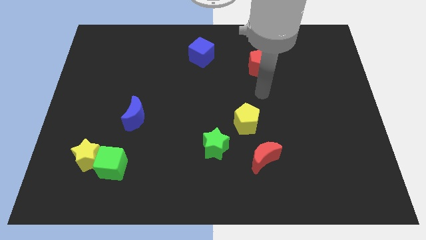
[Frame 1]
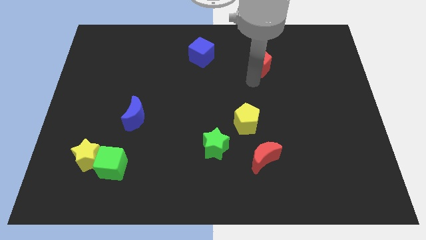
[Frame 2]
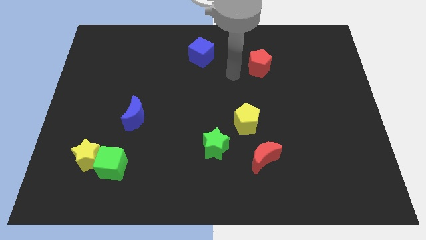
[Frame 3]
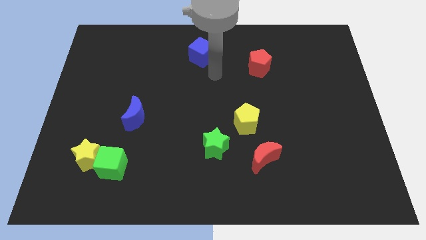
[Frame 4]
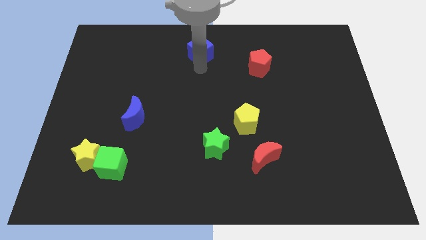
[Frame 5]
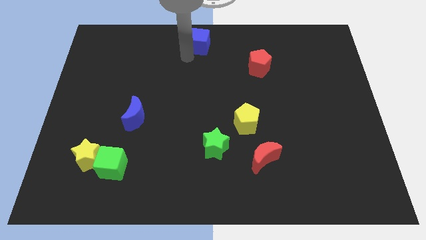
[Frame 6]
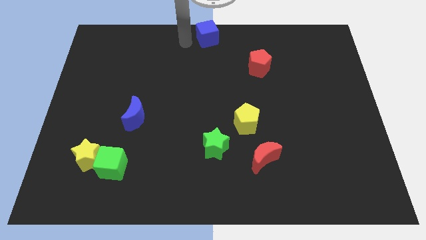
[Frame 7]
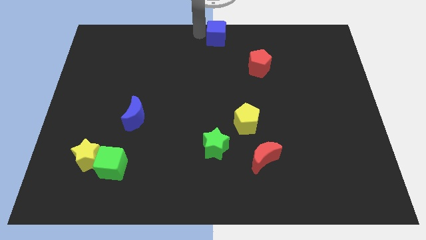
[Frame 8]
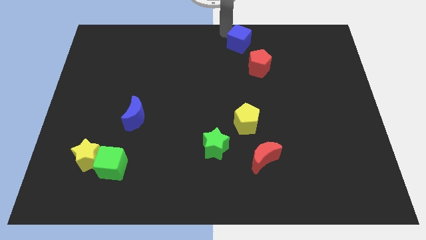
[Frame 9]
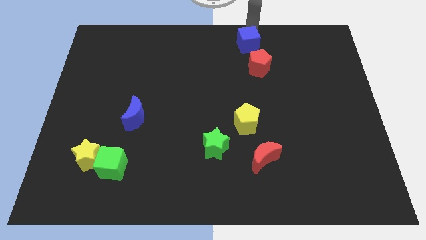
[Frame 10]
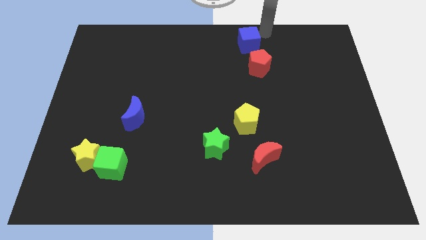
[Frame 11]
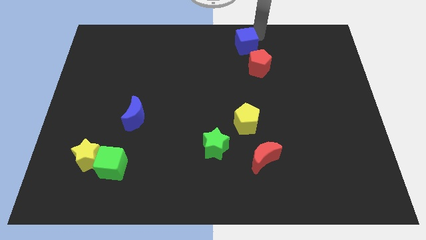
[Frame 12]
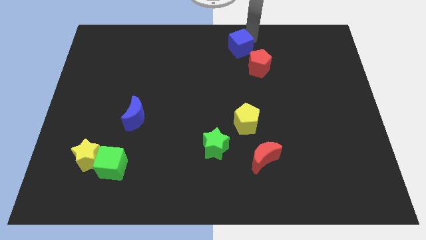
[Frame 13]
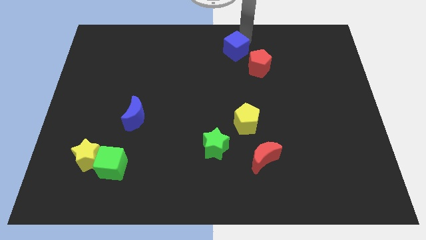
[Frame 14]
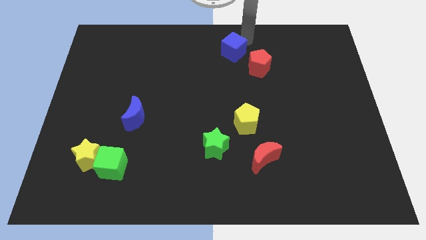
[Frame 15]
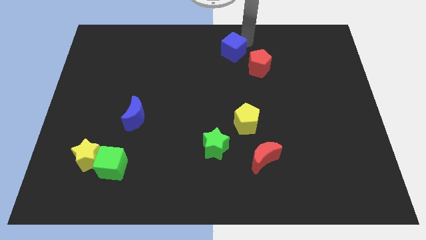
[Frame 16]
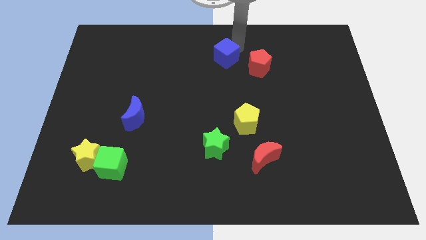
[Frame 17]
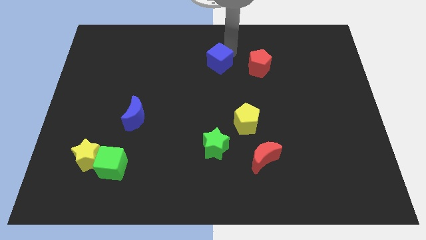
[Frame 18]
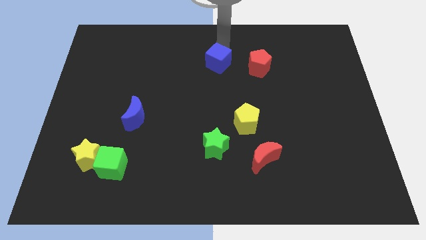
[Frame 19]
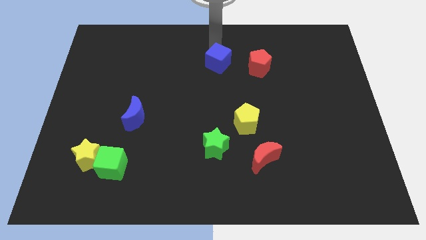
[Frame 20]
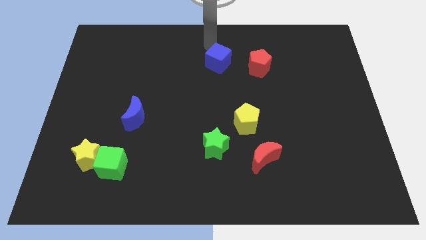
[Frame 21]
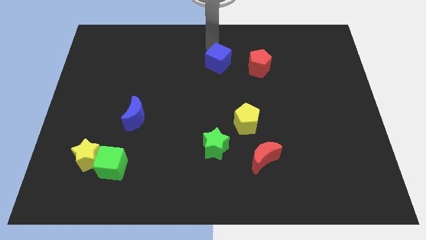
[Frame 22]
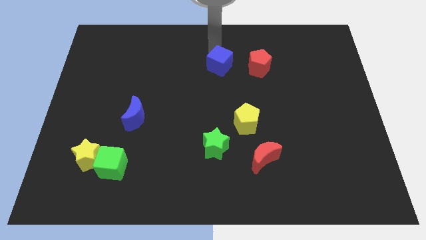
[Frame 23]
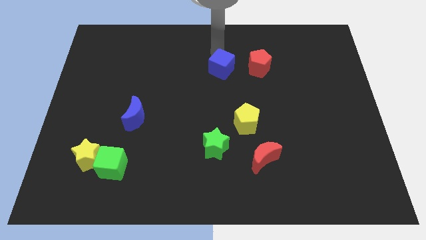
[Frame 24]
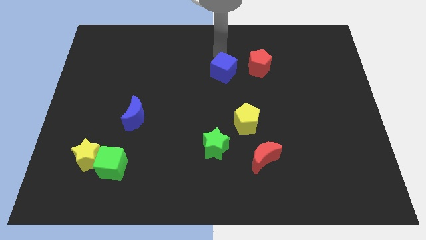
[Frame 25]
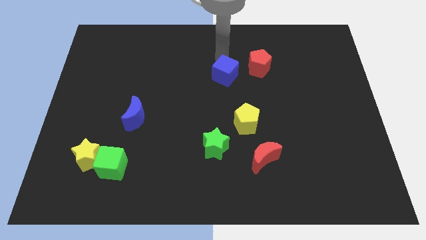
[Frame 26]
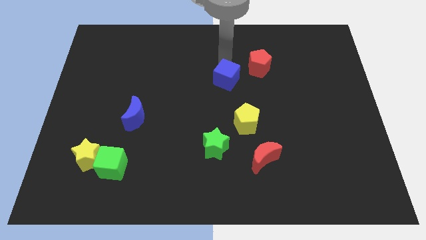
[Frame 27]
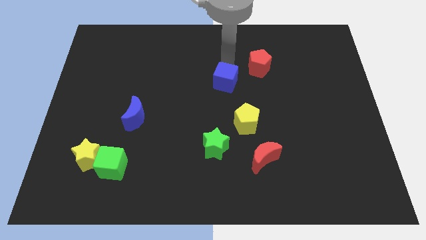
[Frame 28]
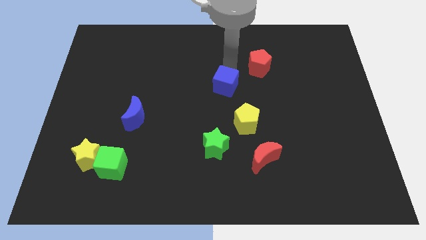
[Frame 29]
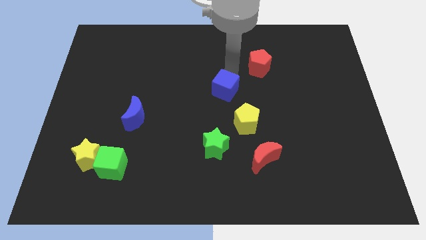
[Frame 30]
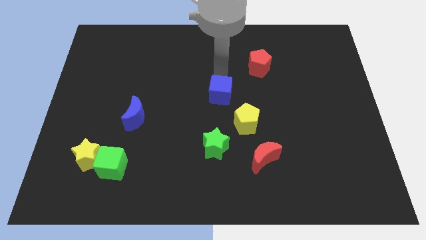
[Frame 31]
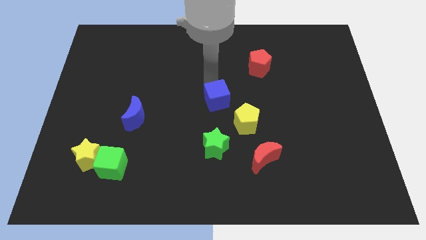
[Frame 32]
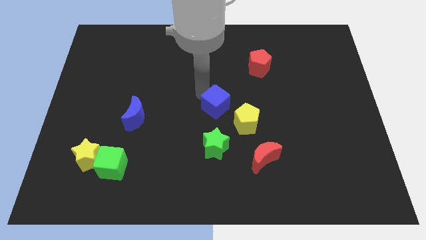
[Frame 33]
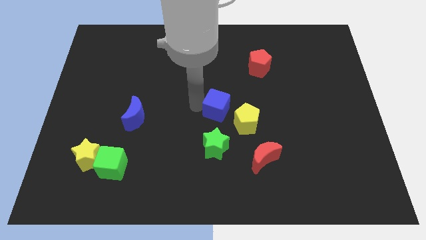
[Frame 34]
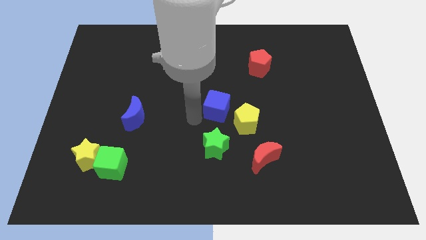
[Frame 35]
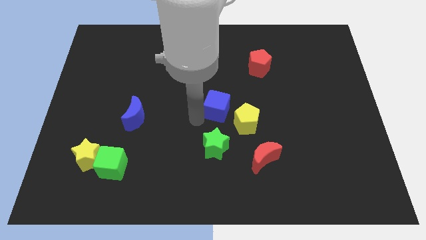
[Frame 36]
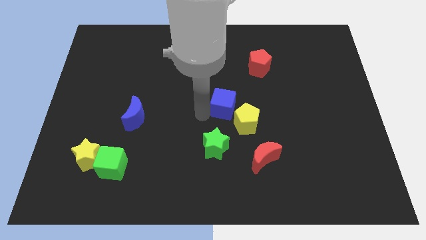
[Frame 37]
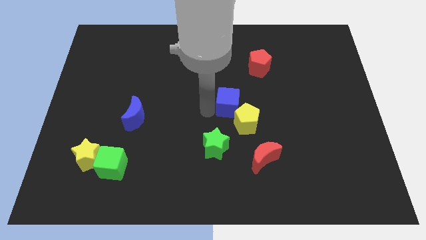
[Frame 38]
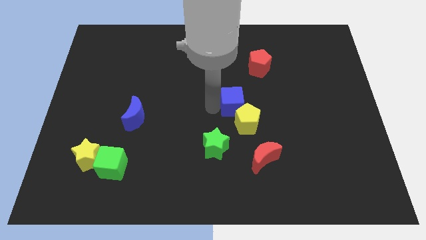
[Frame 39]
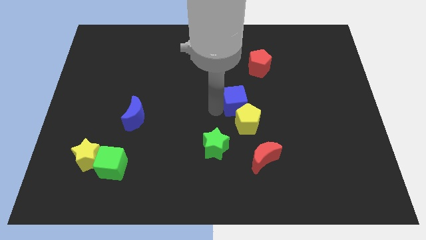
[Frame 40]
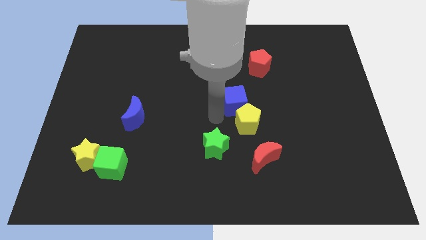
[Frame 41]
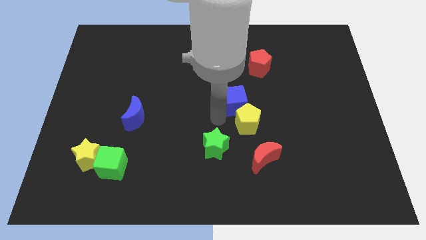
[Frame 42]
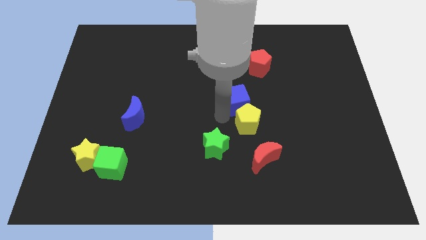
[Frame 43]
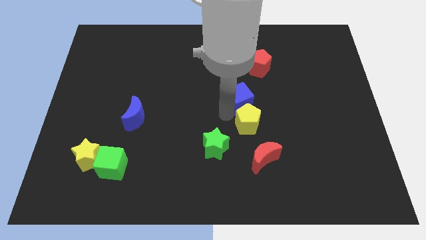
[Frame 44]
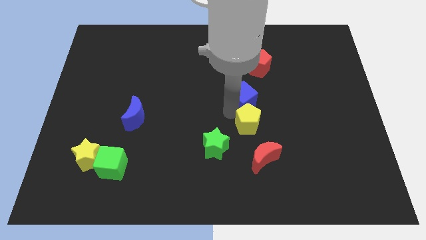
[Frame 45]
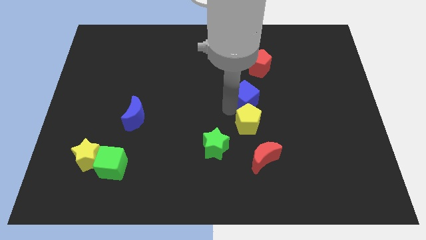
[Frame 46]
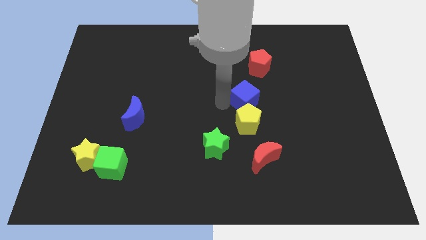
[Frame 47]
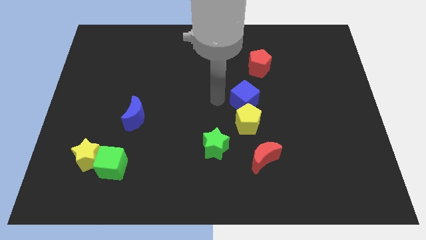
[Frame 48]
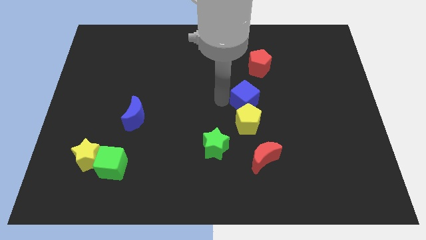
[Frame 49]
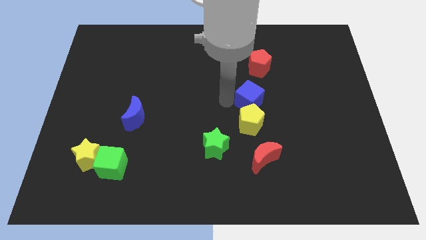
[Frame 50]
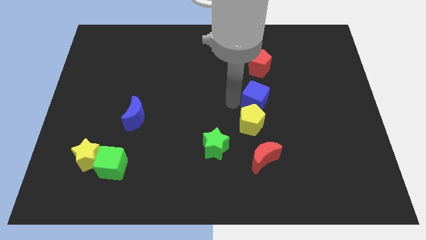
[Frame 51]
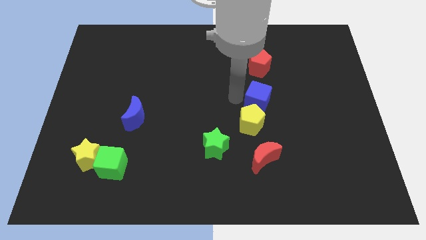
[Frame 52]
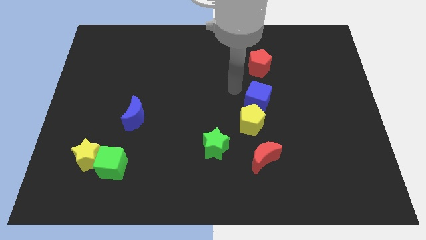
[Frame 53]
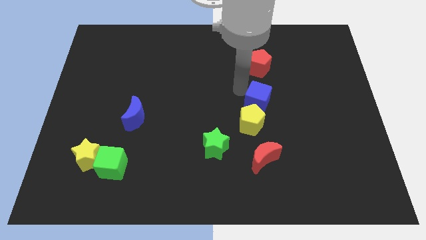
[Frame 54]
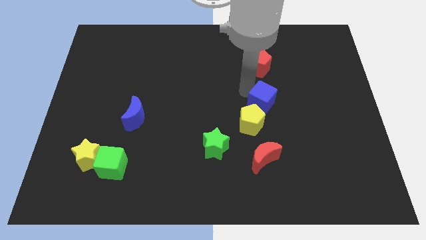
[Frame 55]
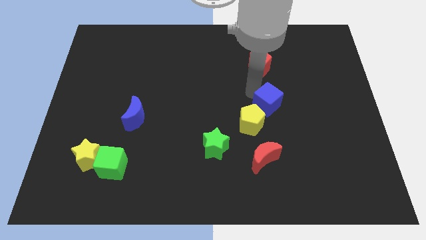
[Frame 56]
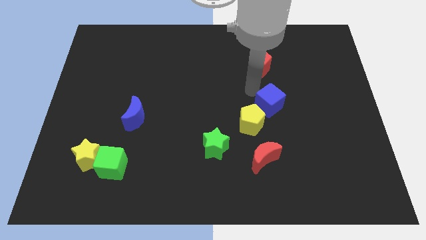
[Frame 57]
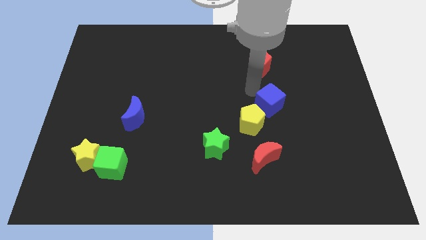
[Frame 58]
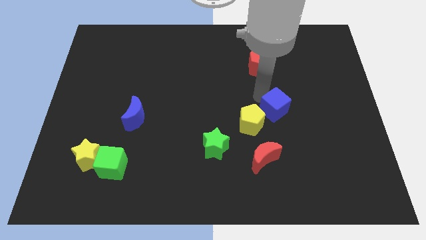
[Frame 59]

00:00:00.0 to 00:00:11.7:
push the blue cube just right of the yellow pentagon
